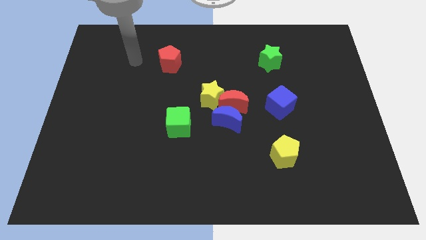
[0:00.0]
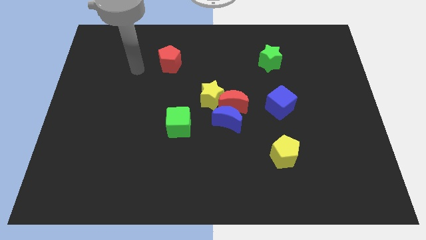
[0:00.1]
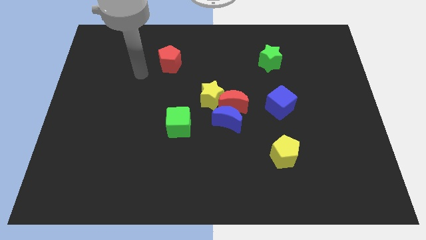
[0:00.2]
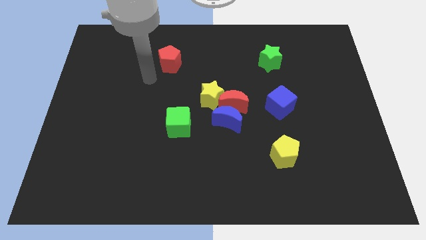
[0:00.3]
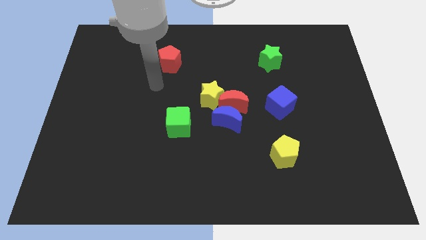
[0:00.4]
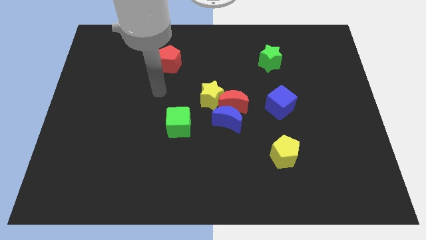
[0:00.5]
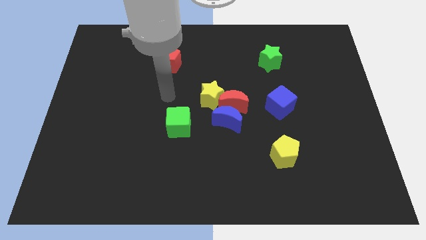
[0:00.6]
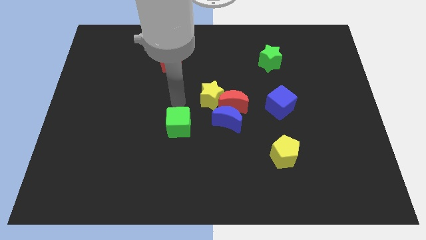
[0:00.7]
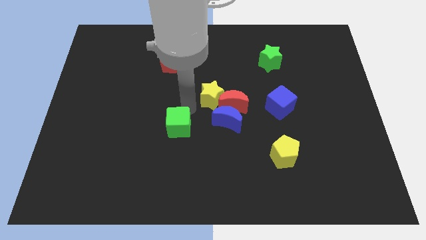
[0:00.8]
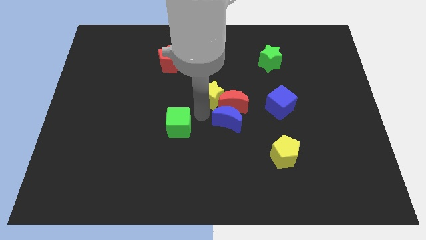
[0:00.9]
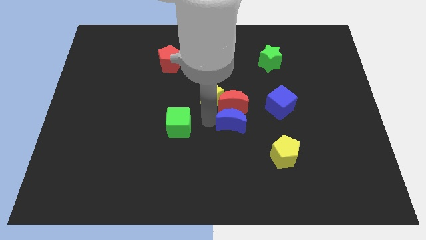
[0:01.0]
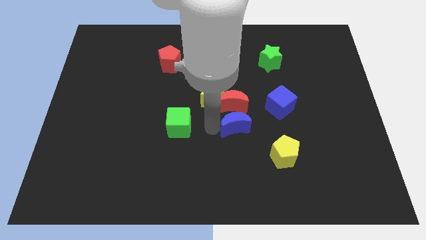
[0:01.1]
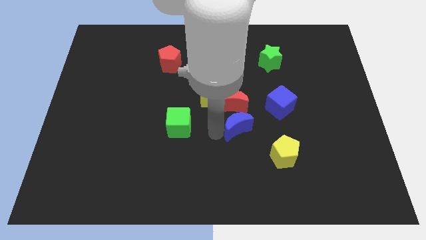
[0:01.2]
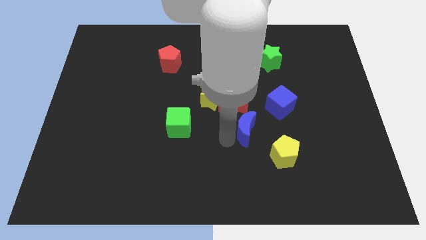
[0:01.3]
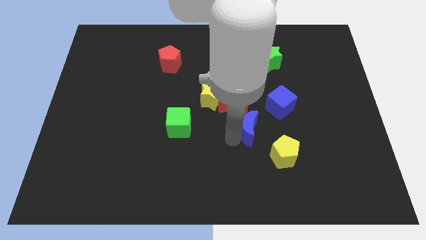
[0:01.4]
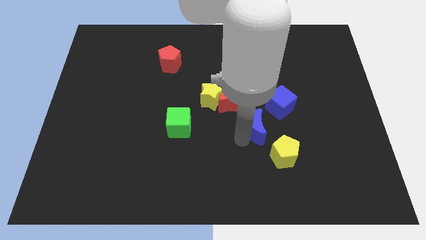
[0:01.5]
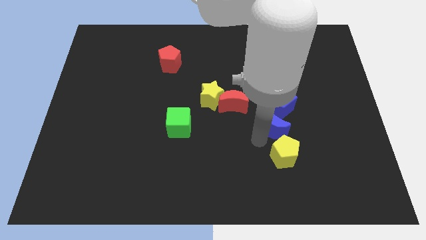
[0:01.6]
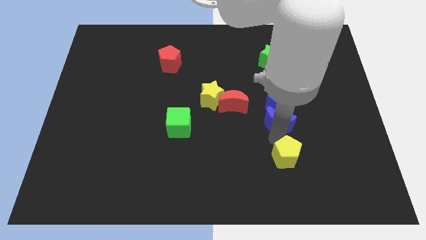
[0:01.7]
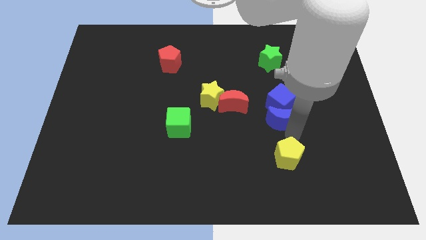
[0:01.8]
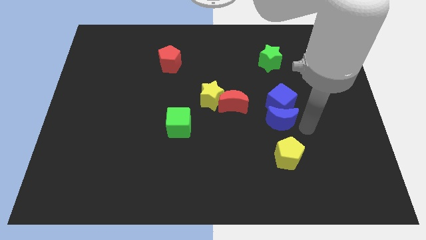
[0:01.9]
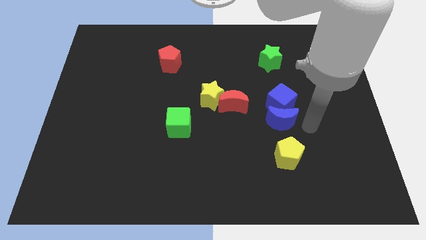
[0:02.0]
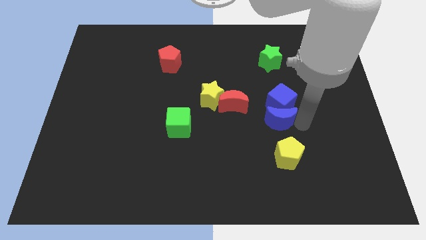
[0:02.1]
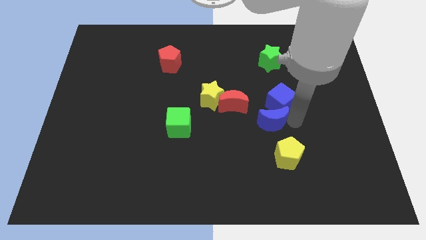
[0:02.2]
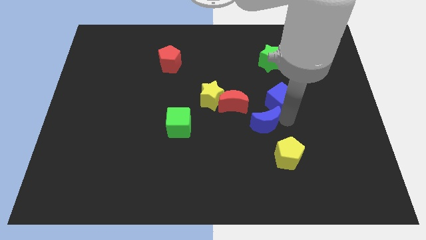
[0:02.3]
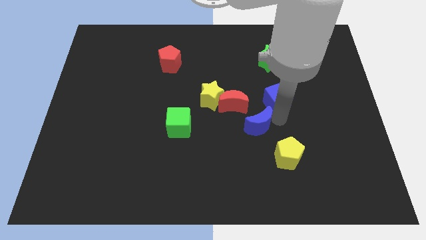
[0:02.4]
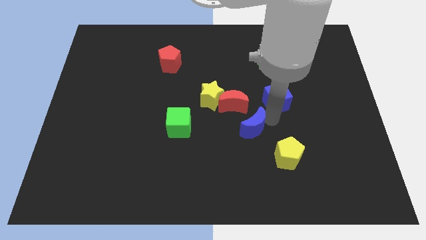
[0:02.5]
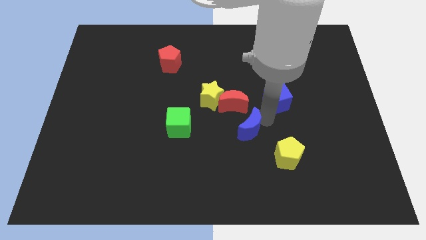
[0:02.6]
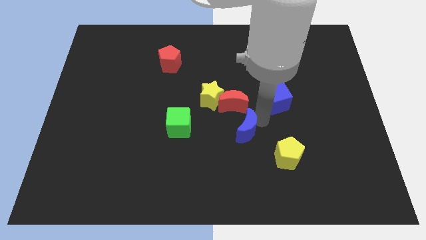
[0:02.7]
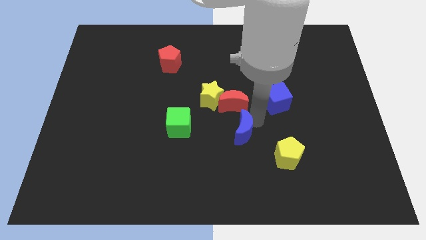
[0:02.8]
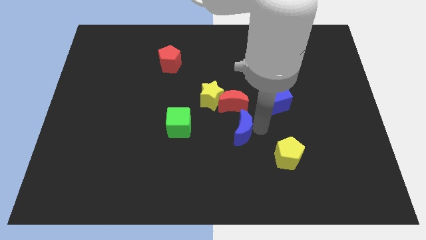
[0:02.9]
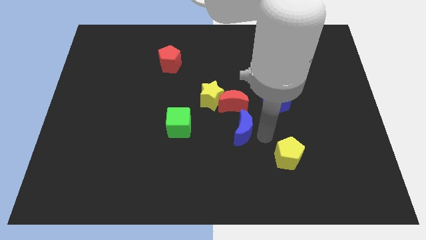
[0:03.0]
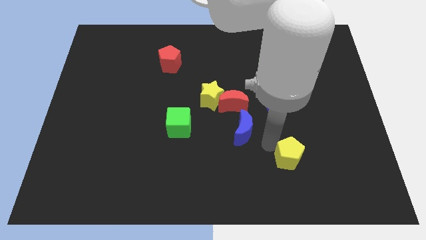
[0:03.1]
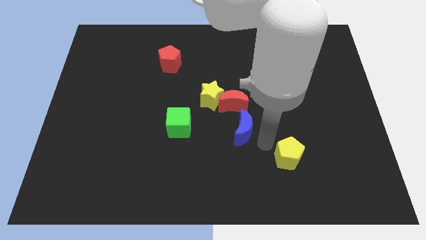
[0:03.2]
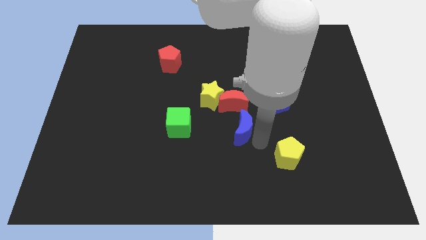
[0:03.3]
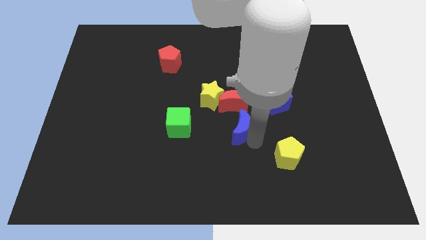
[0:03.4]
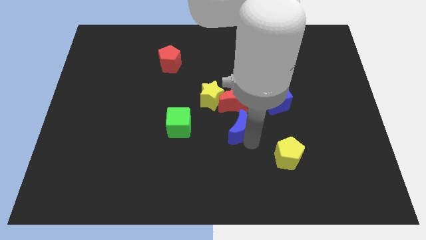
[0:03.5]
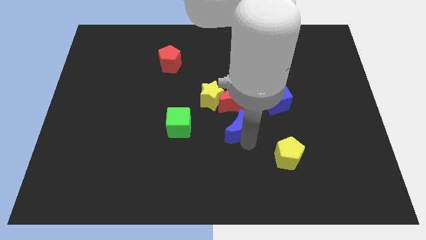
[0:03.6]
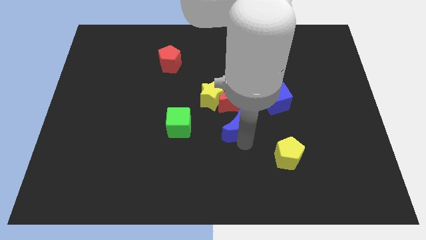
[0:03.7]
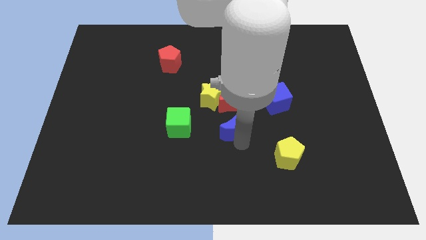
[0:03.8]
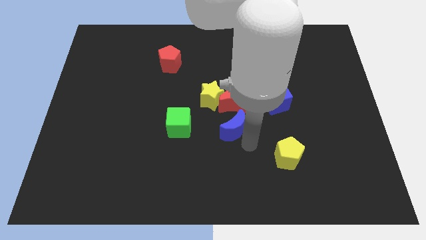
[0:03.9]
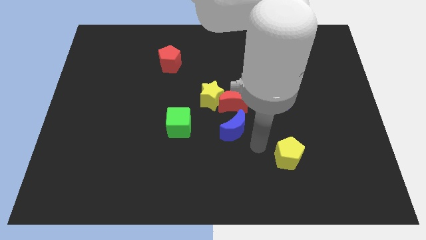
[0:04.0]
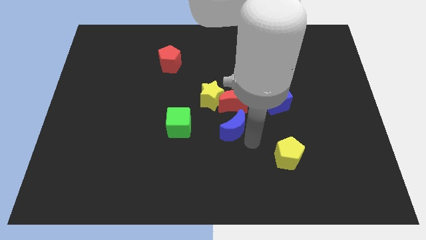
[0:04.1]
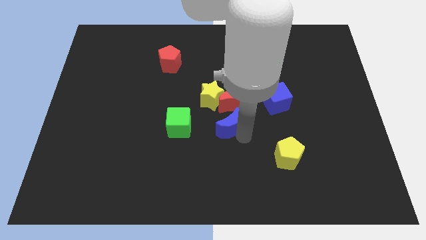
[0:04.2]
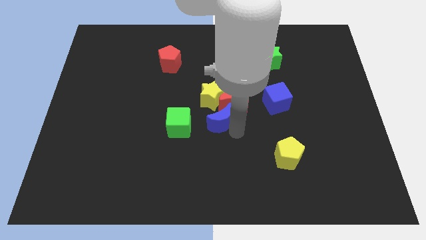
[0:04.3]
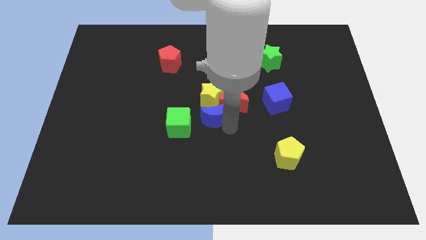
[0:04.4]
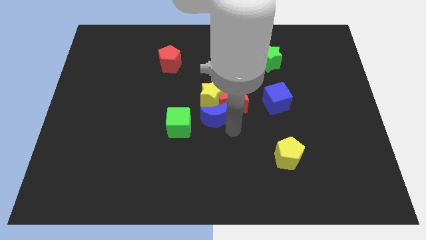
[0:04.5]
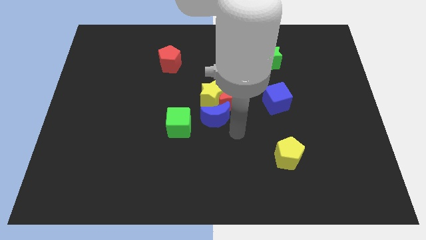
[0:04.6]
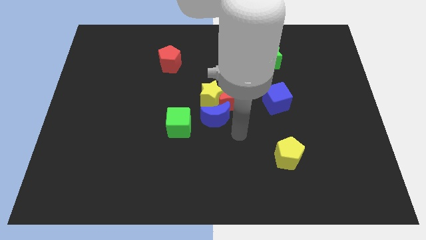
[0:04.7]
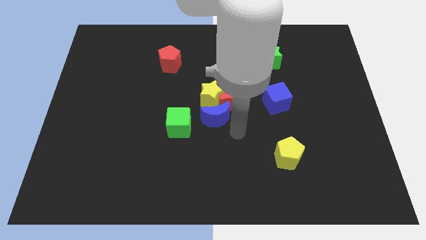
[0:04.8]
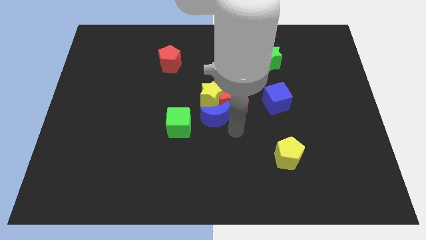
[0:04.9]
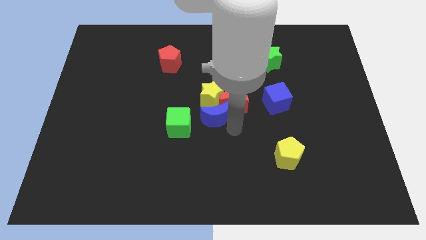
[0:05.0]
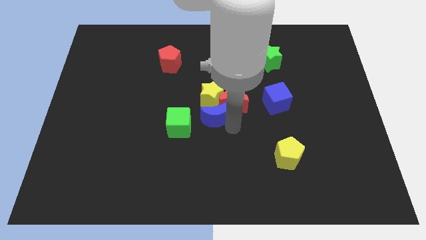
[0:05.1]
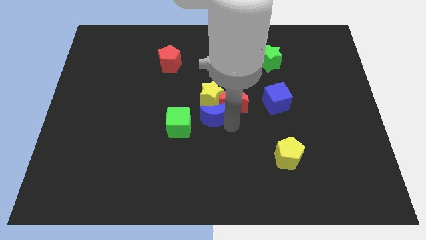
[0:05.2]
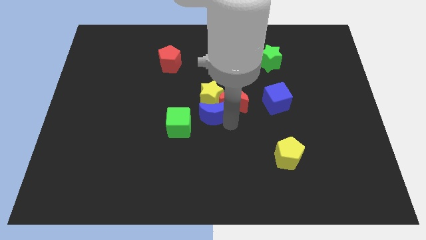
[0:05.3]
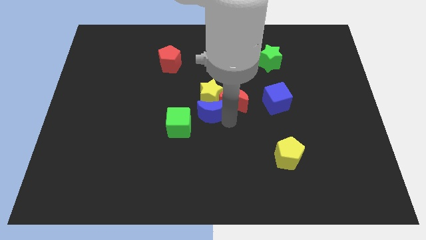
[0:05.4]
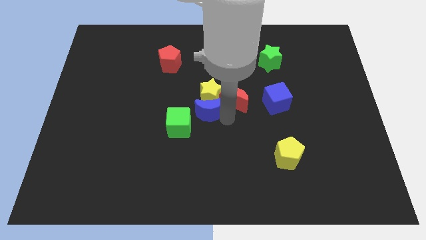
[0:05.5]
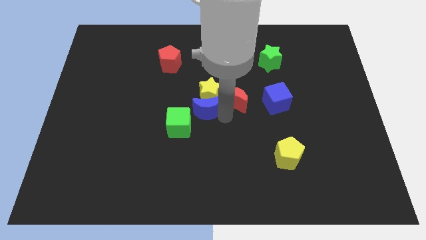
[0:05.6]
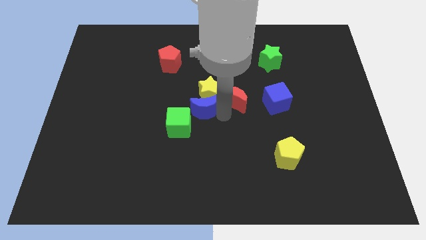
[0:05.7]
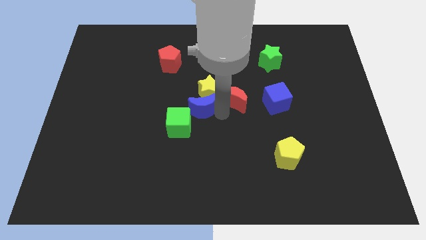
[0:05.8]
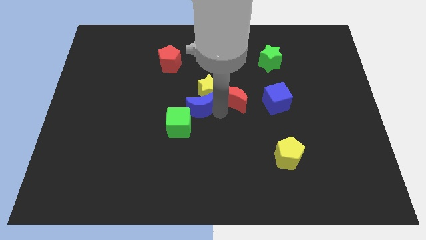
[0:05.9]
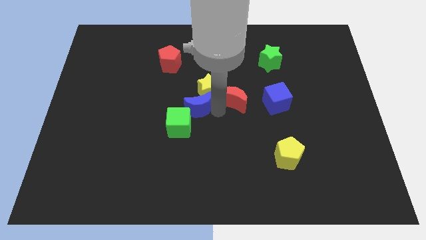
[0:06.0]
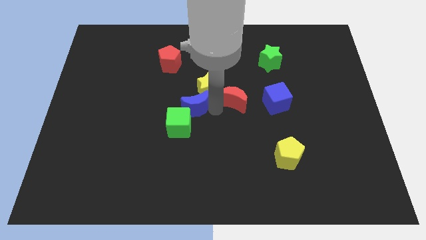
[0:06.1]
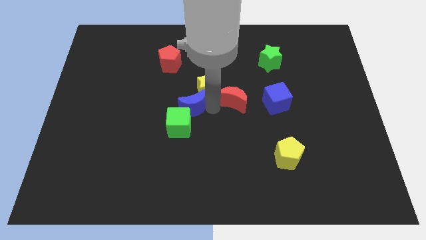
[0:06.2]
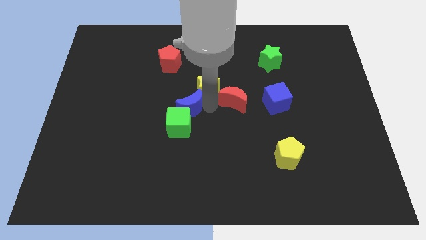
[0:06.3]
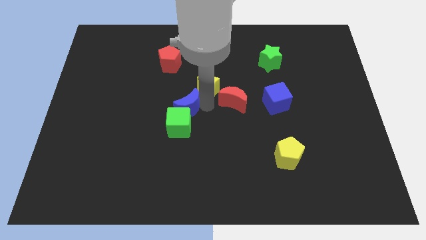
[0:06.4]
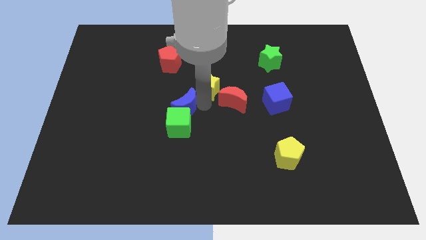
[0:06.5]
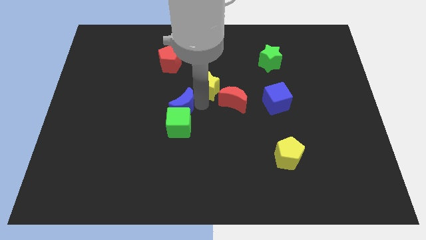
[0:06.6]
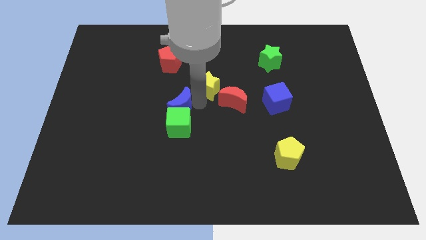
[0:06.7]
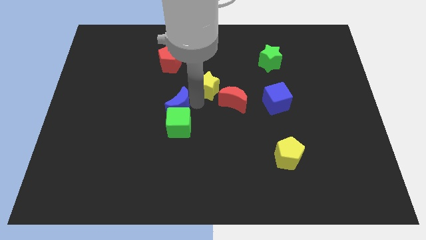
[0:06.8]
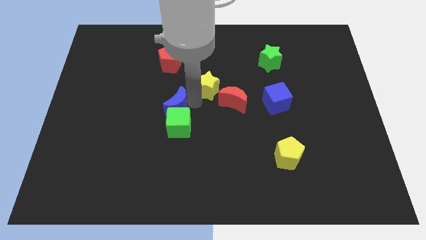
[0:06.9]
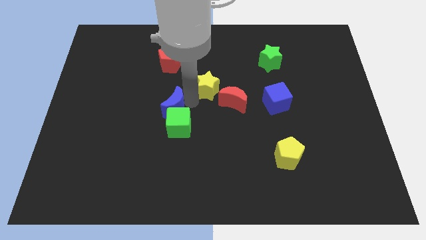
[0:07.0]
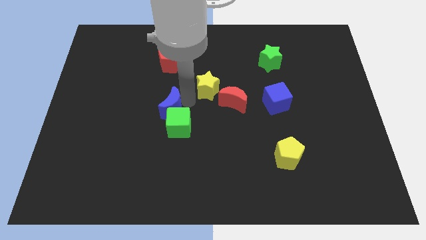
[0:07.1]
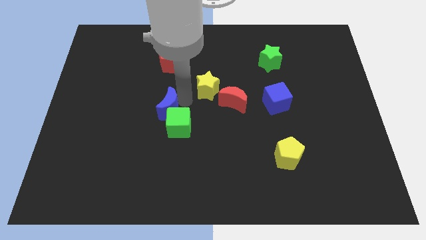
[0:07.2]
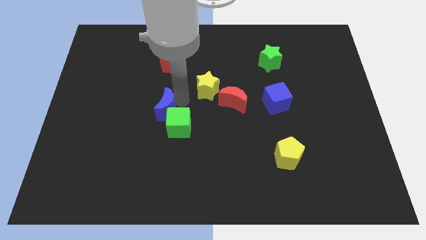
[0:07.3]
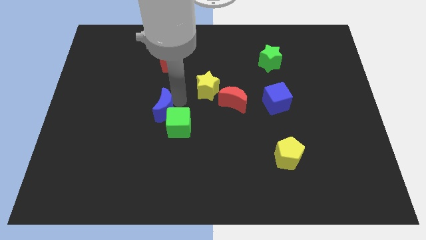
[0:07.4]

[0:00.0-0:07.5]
move the blue moon just left of the green cube
